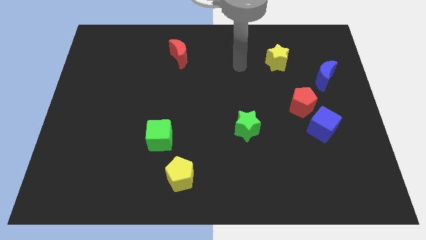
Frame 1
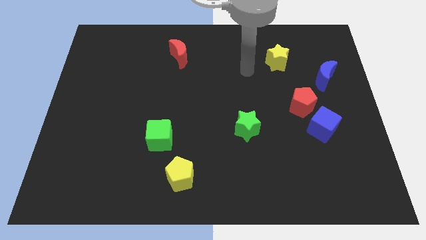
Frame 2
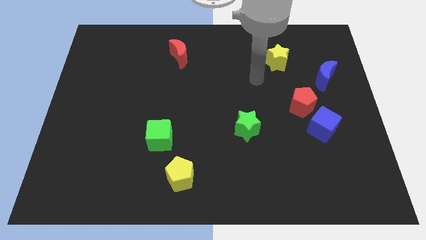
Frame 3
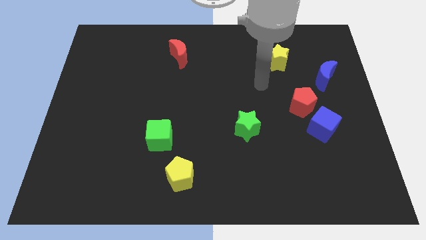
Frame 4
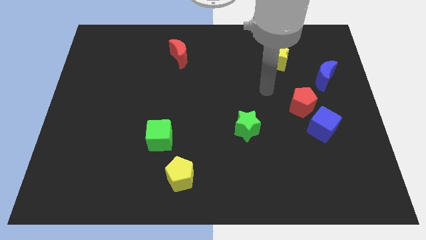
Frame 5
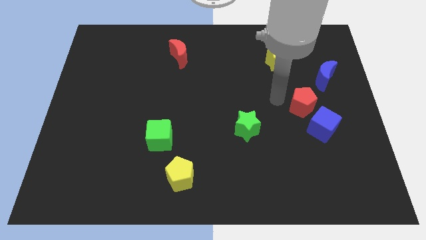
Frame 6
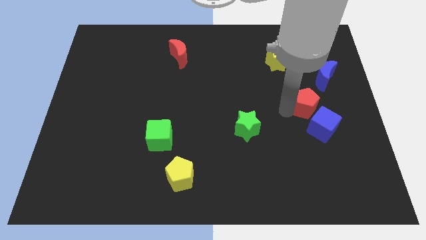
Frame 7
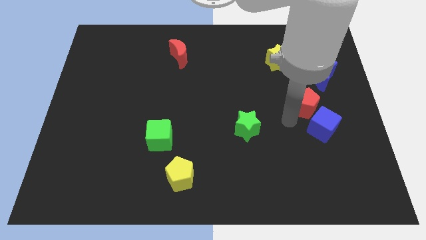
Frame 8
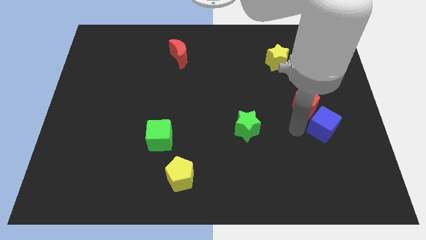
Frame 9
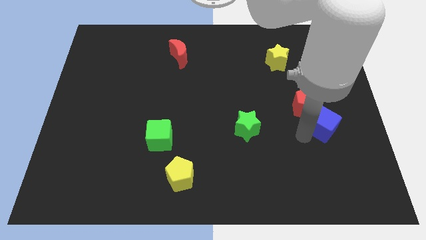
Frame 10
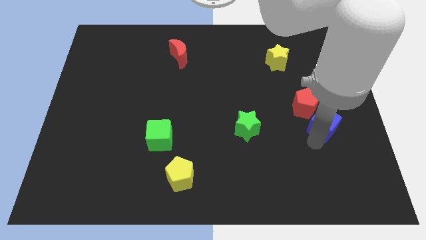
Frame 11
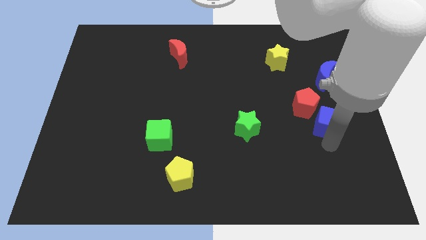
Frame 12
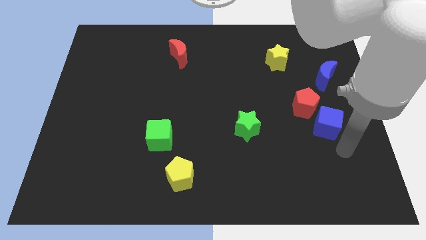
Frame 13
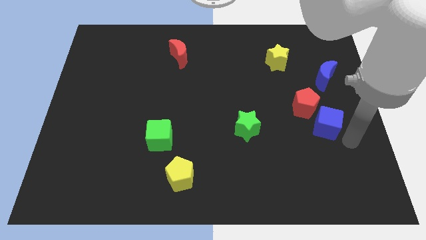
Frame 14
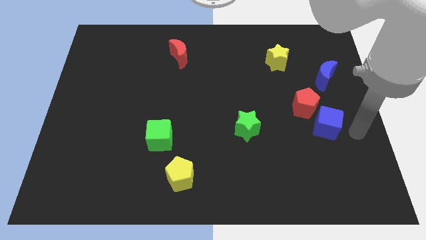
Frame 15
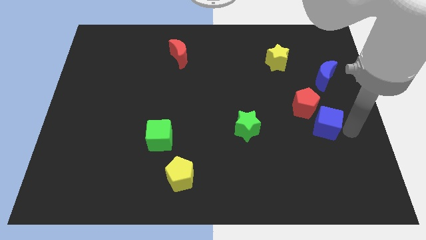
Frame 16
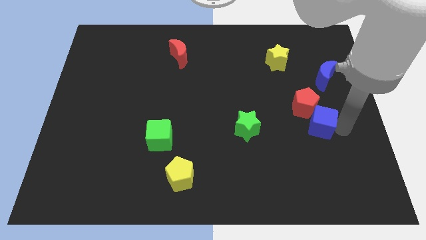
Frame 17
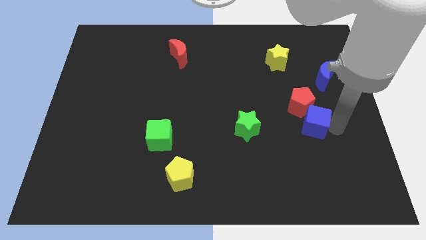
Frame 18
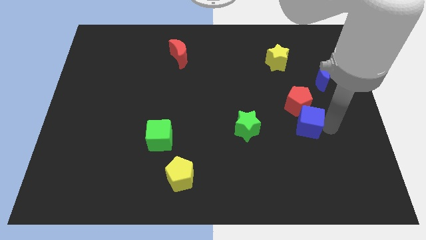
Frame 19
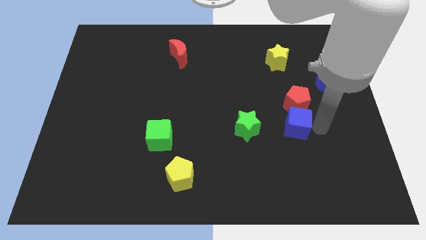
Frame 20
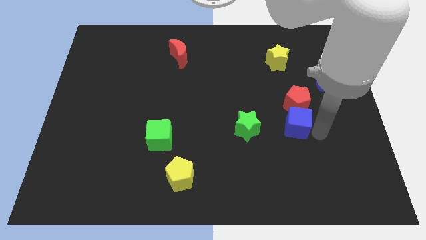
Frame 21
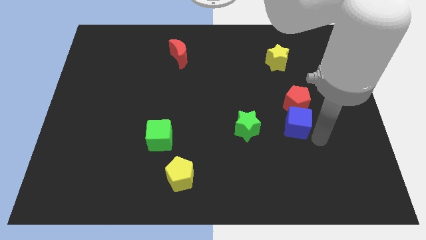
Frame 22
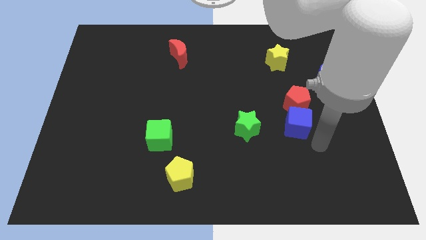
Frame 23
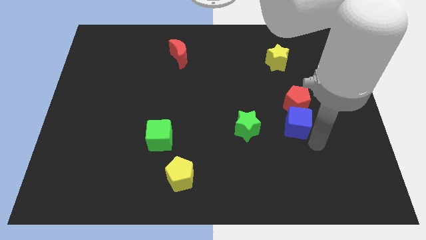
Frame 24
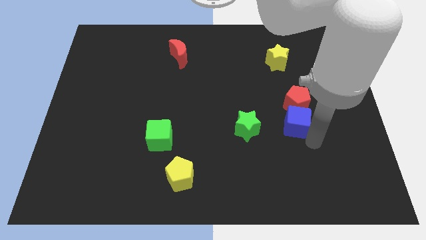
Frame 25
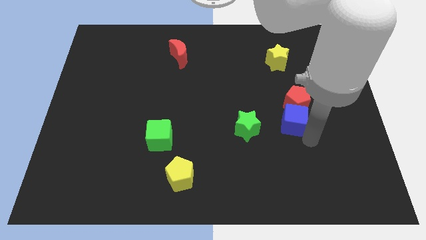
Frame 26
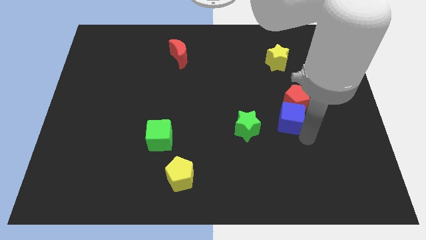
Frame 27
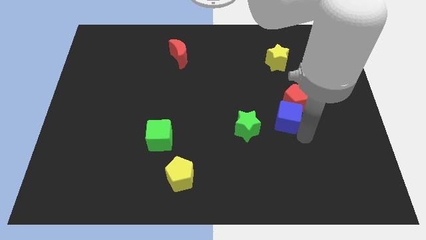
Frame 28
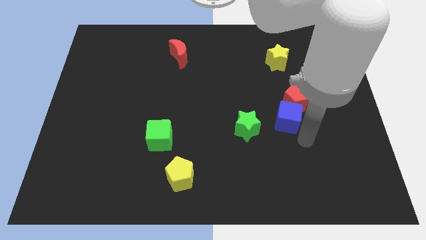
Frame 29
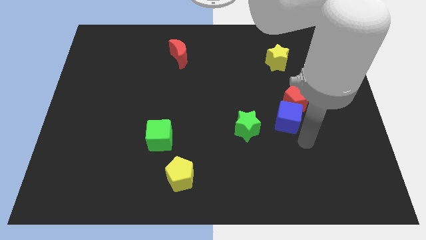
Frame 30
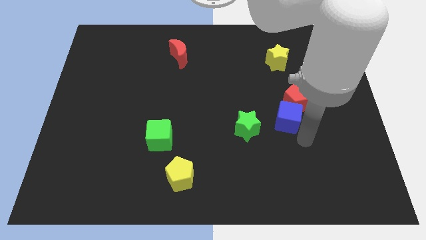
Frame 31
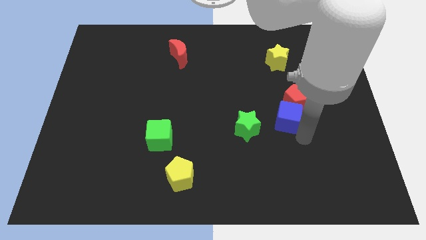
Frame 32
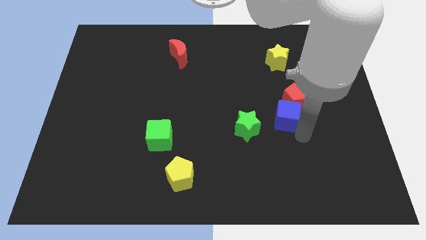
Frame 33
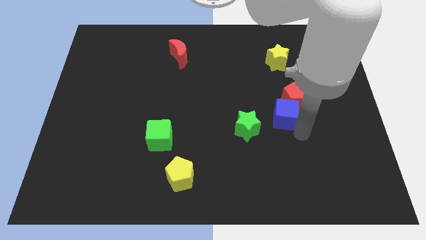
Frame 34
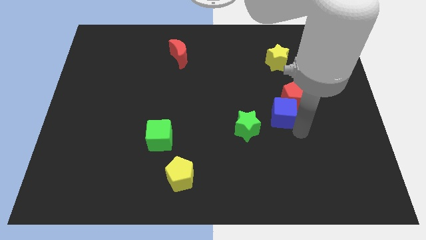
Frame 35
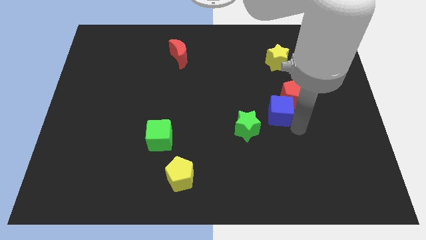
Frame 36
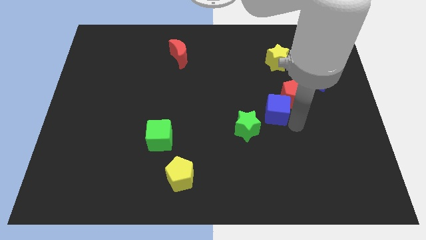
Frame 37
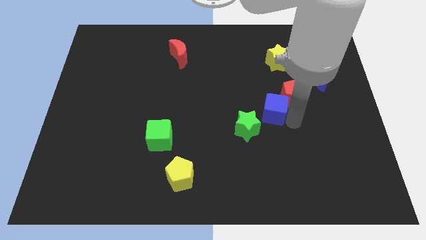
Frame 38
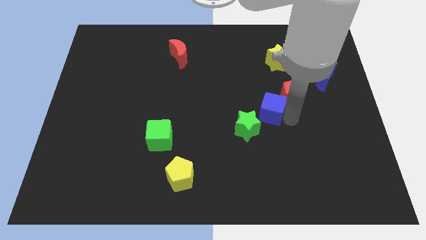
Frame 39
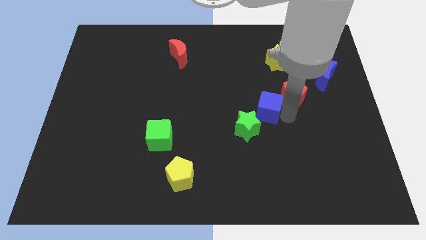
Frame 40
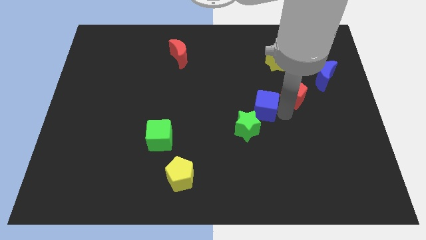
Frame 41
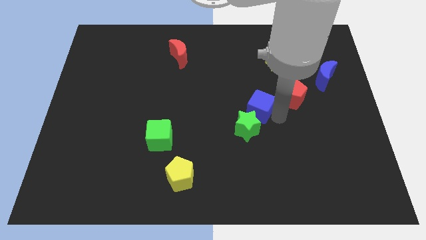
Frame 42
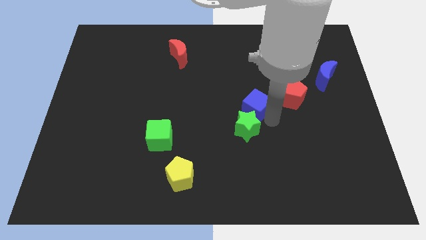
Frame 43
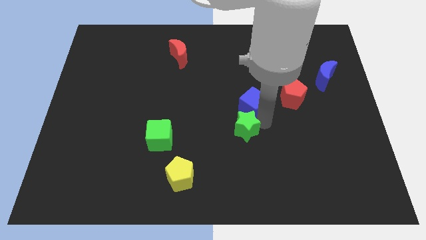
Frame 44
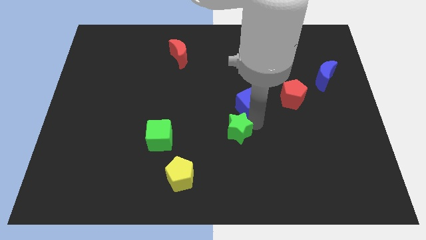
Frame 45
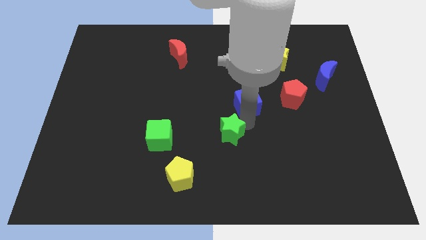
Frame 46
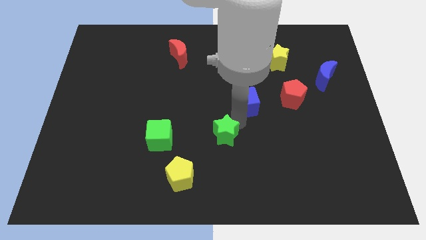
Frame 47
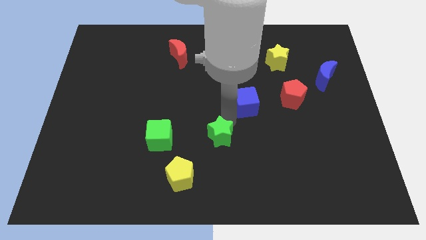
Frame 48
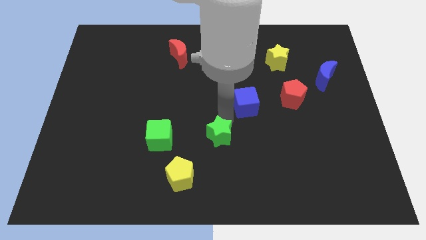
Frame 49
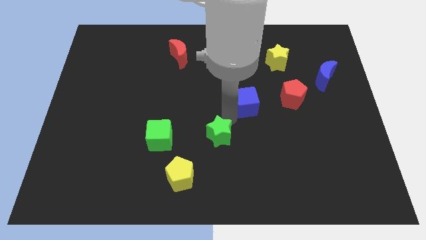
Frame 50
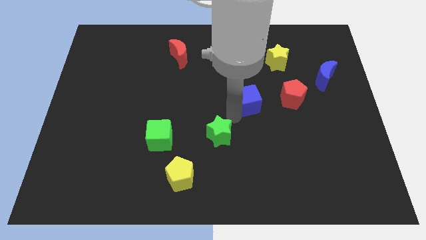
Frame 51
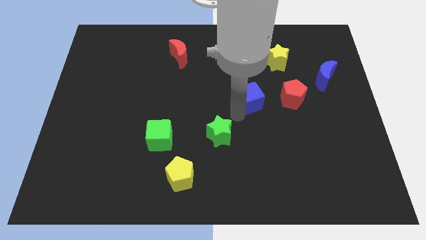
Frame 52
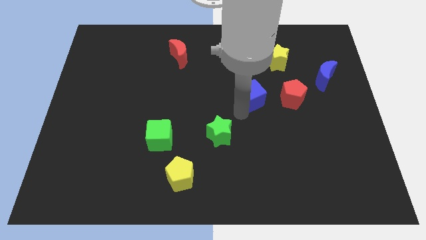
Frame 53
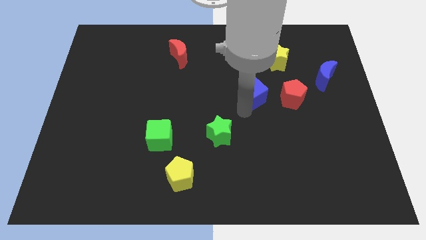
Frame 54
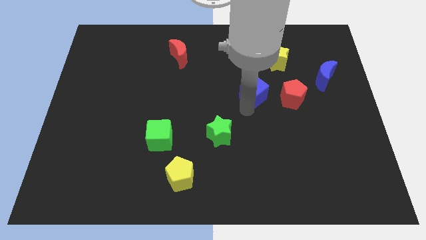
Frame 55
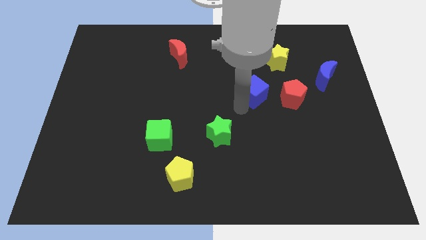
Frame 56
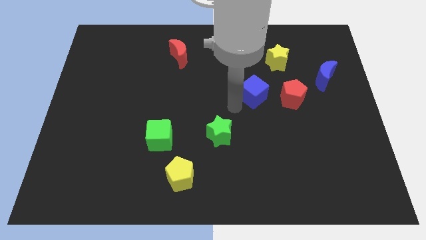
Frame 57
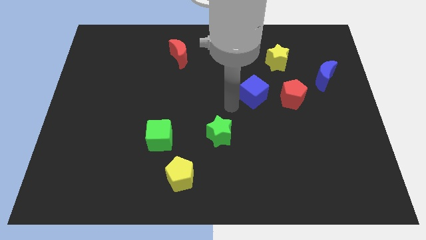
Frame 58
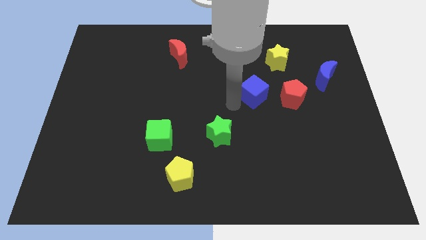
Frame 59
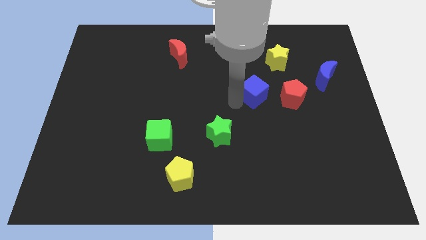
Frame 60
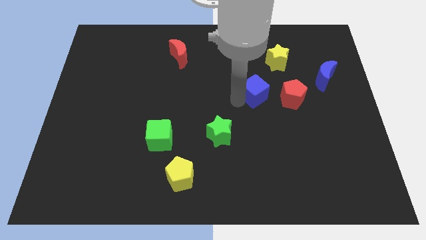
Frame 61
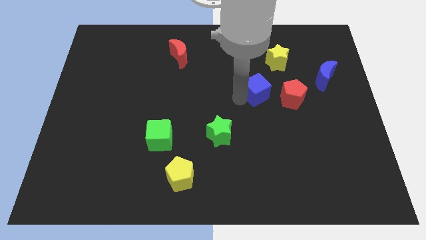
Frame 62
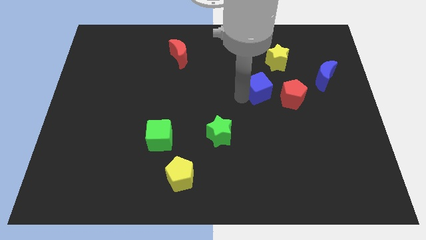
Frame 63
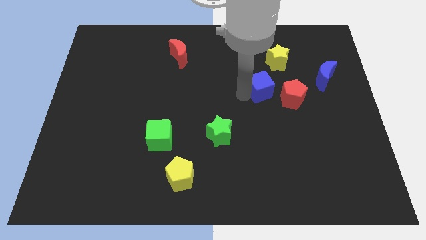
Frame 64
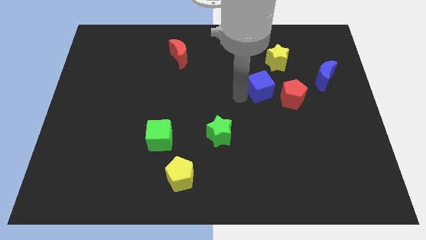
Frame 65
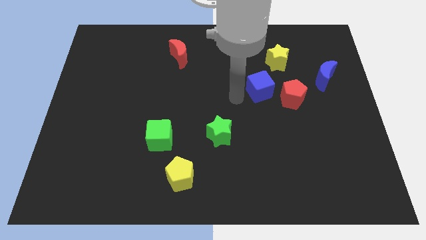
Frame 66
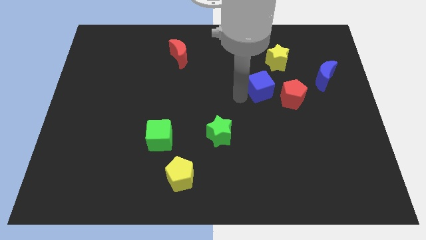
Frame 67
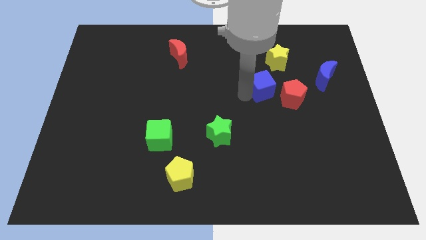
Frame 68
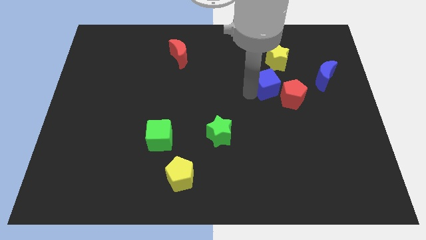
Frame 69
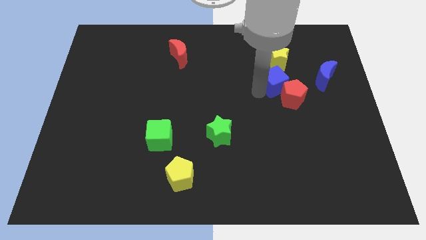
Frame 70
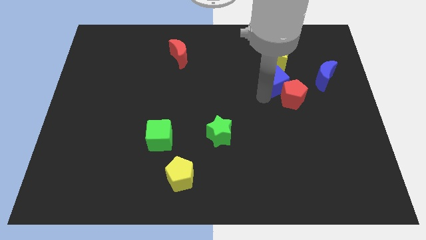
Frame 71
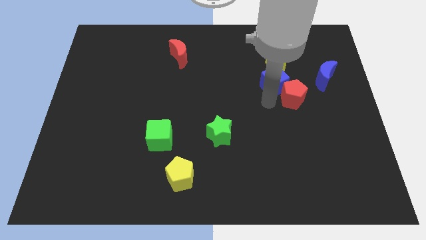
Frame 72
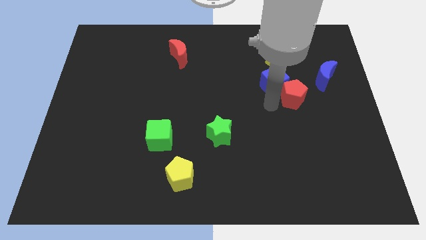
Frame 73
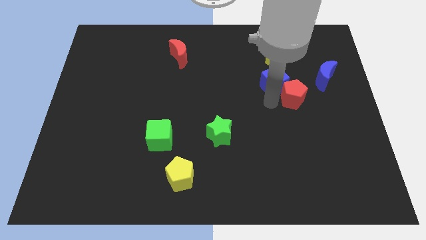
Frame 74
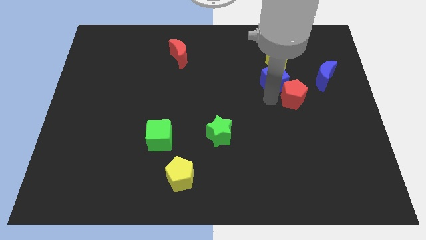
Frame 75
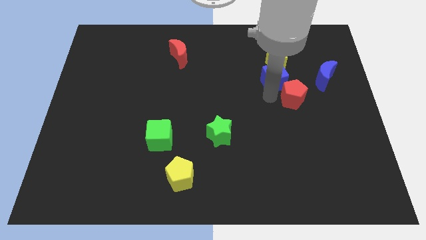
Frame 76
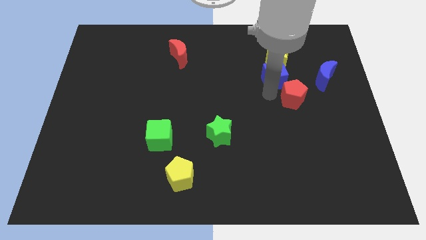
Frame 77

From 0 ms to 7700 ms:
move the blue cube next to the yellow star
